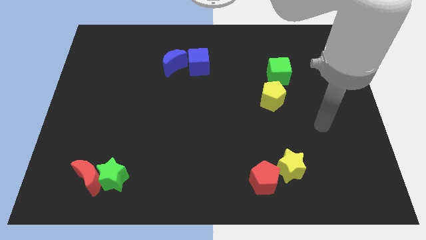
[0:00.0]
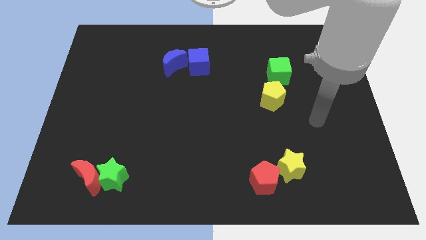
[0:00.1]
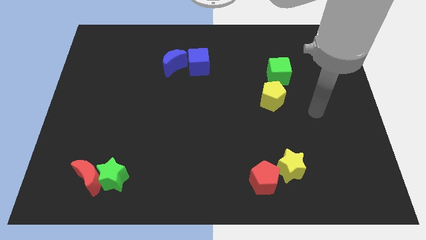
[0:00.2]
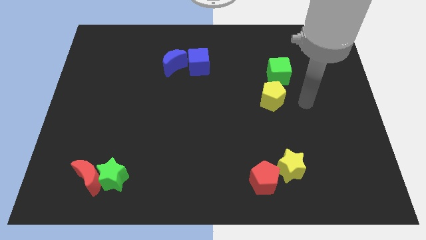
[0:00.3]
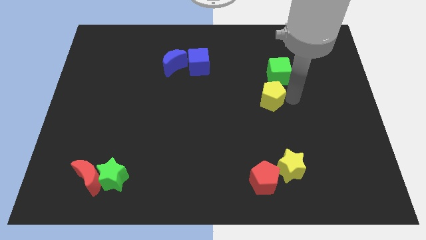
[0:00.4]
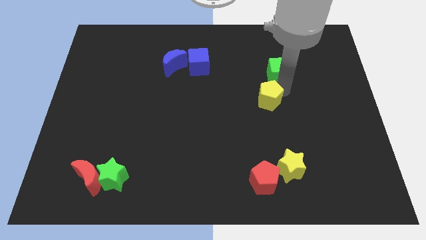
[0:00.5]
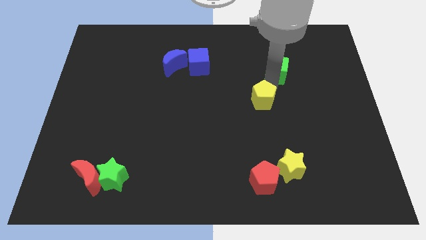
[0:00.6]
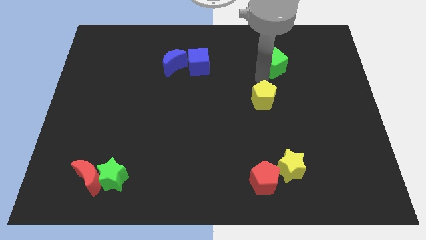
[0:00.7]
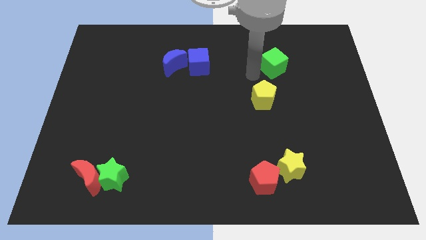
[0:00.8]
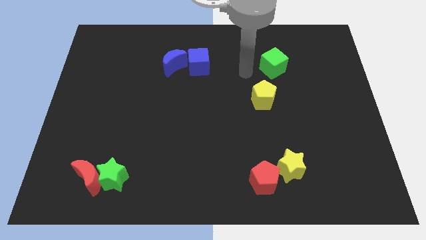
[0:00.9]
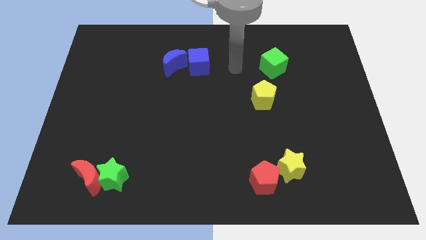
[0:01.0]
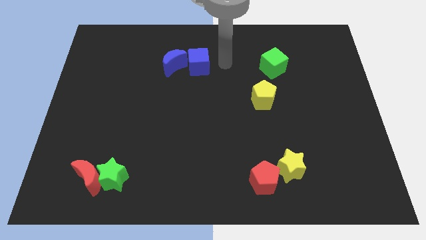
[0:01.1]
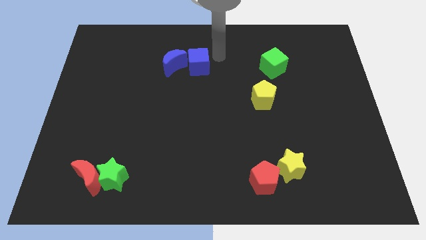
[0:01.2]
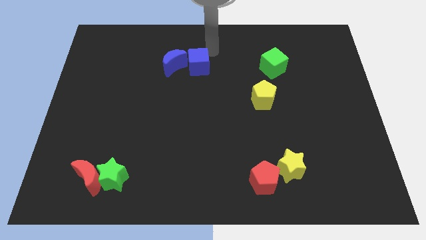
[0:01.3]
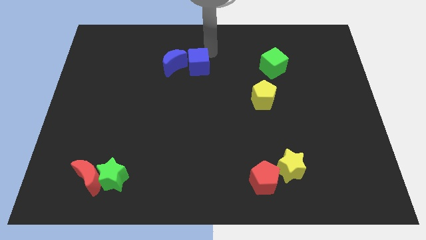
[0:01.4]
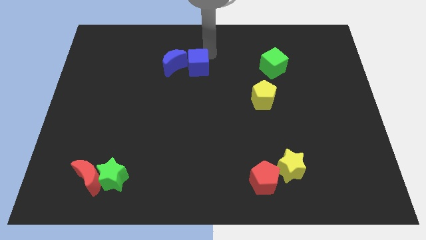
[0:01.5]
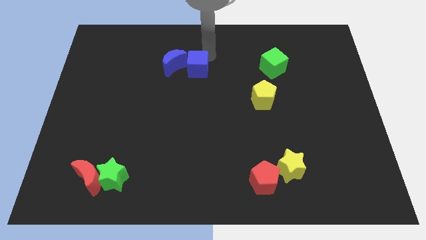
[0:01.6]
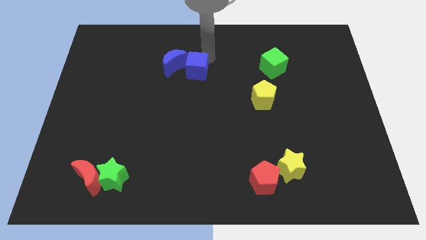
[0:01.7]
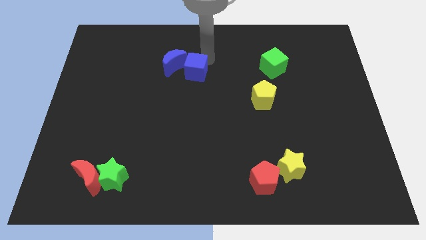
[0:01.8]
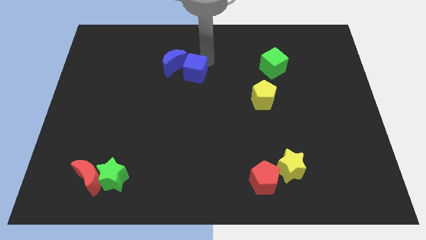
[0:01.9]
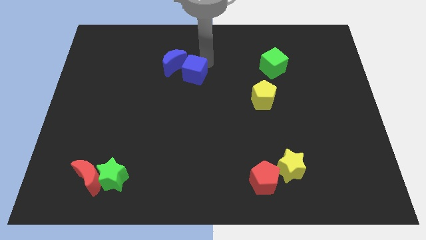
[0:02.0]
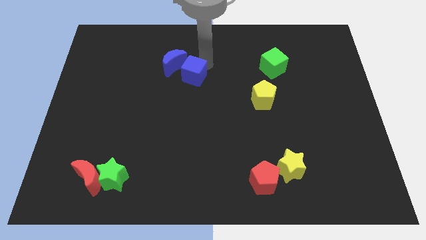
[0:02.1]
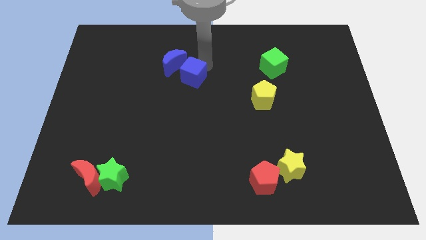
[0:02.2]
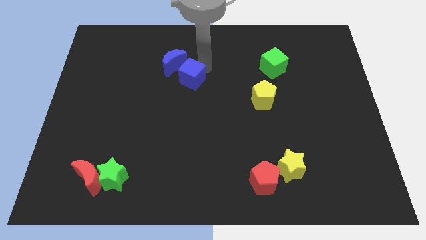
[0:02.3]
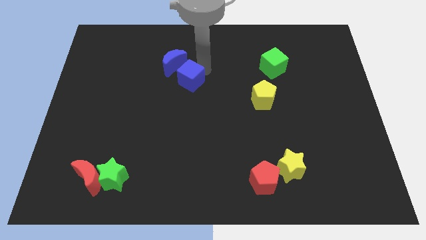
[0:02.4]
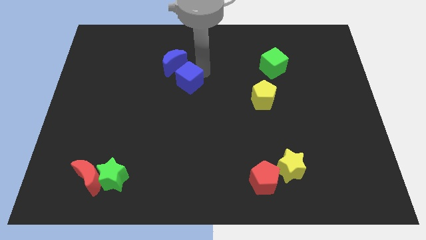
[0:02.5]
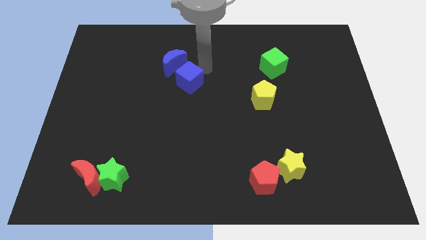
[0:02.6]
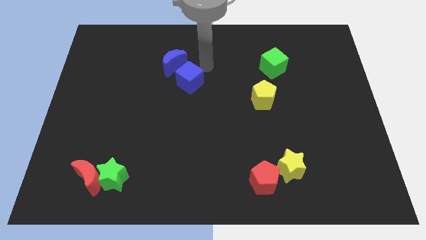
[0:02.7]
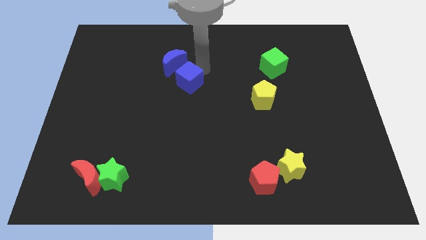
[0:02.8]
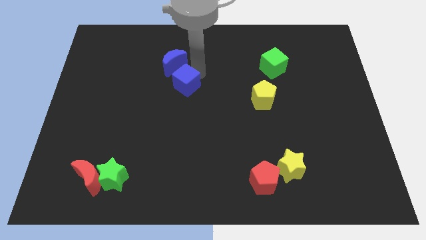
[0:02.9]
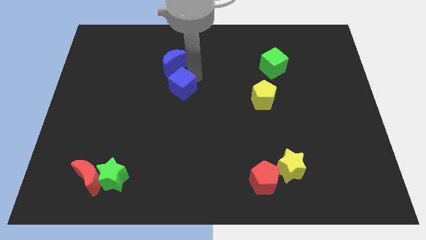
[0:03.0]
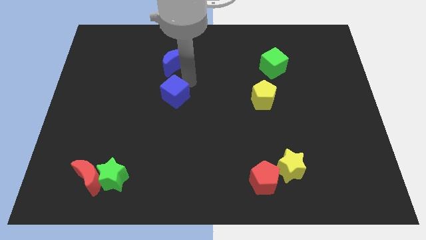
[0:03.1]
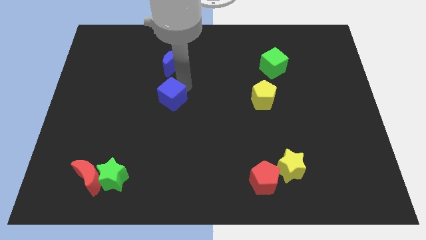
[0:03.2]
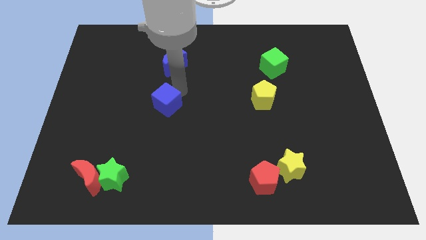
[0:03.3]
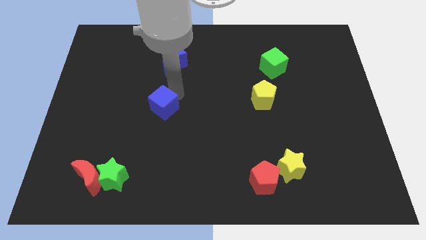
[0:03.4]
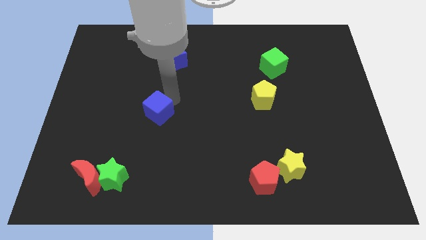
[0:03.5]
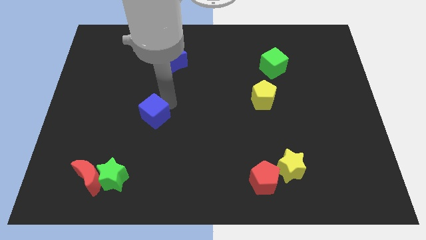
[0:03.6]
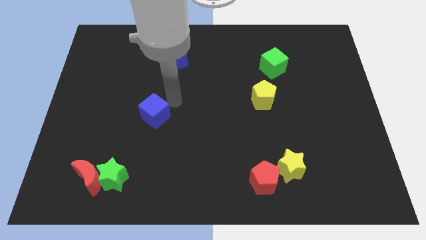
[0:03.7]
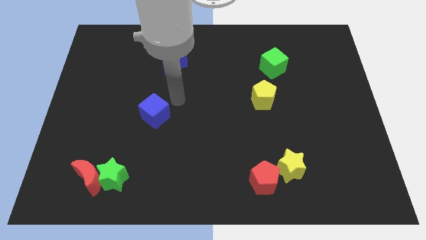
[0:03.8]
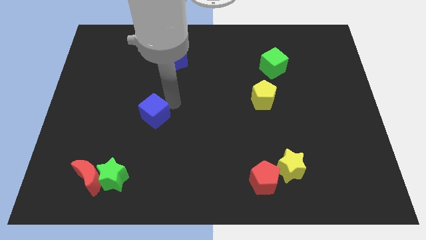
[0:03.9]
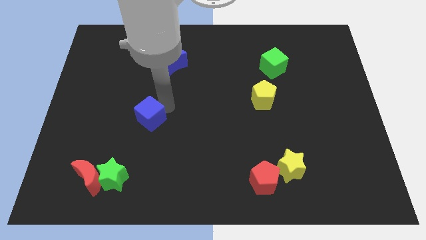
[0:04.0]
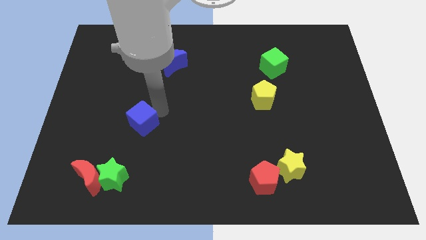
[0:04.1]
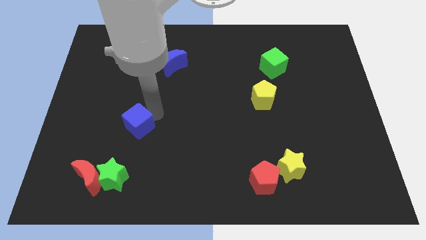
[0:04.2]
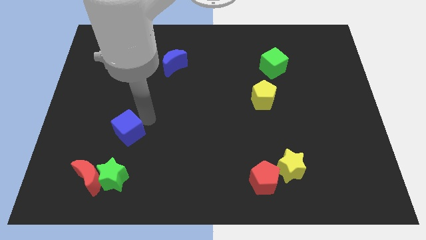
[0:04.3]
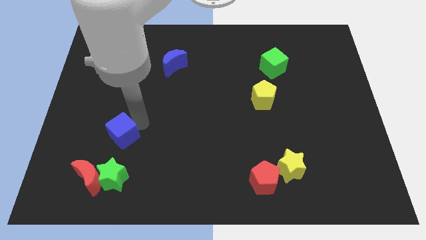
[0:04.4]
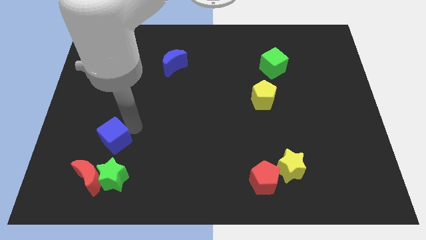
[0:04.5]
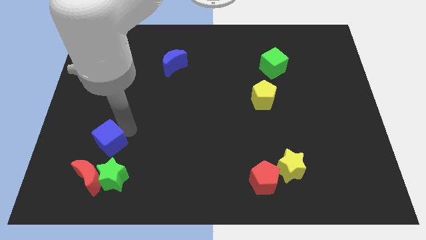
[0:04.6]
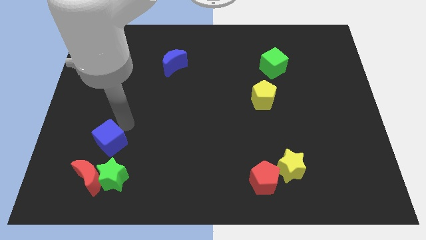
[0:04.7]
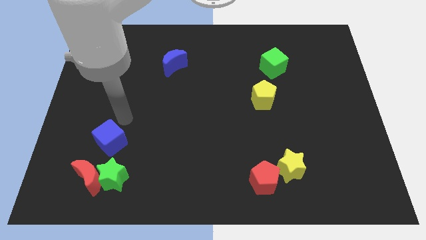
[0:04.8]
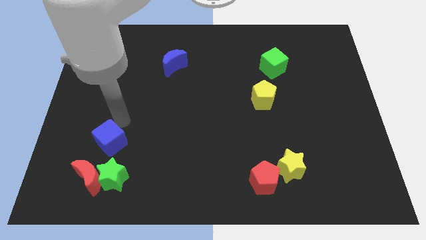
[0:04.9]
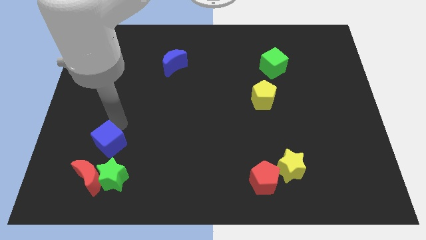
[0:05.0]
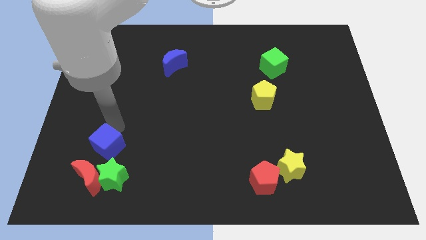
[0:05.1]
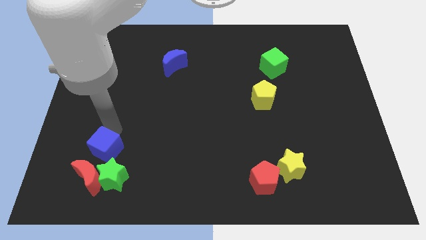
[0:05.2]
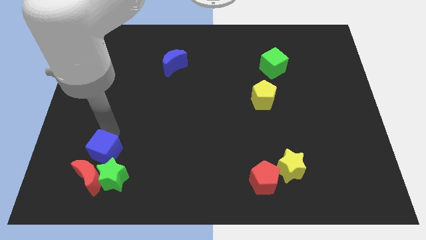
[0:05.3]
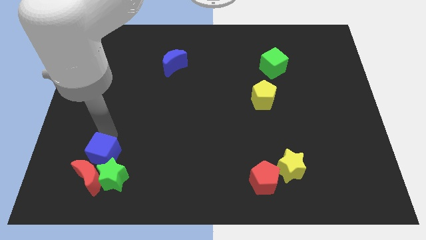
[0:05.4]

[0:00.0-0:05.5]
push the blue cube to the red moon

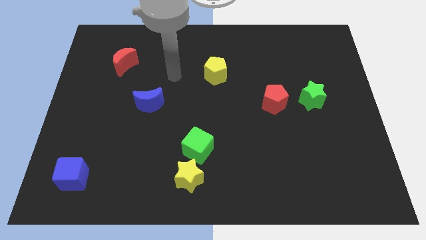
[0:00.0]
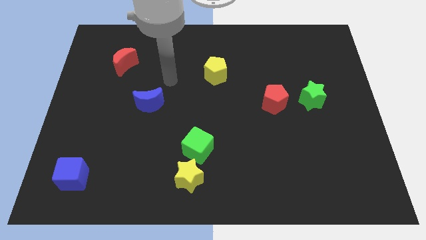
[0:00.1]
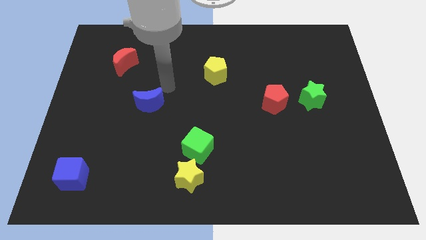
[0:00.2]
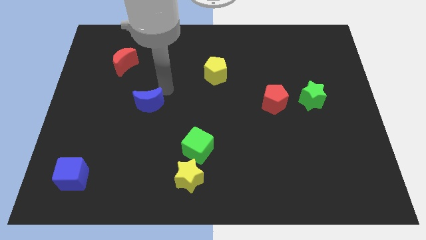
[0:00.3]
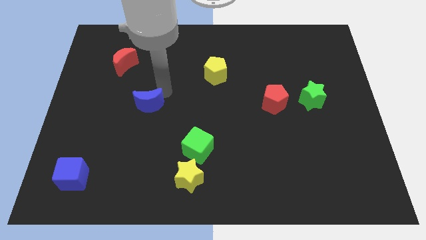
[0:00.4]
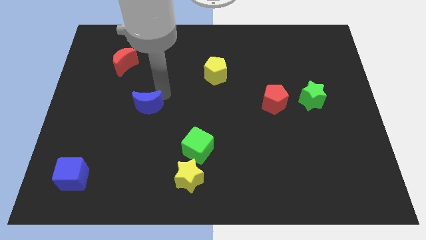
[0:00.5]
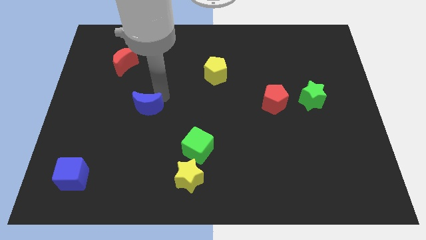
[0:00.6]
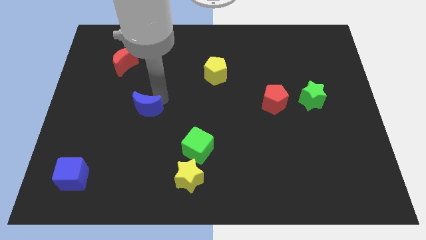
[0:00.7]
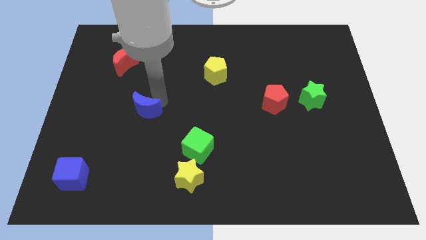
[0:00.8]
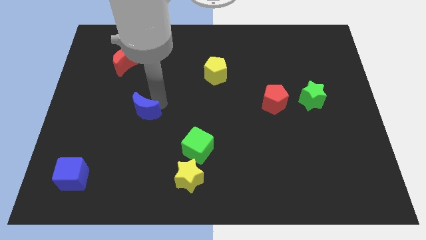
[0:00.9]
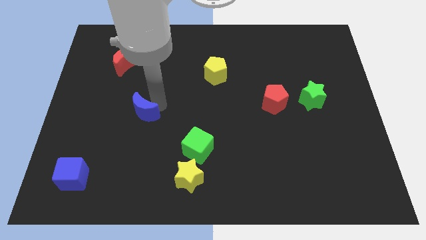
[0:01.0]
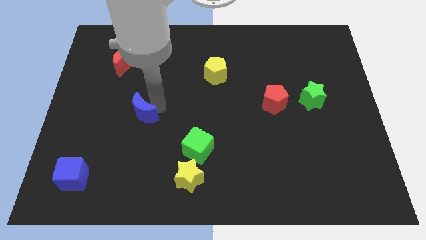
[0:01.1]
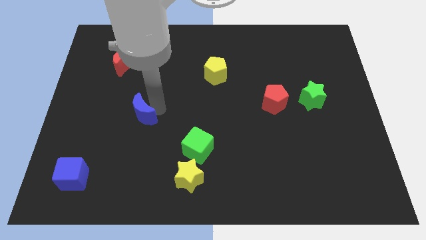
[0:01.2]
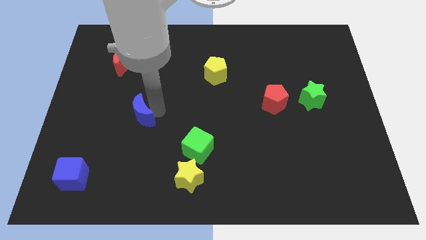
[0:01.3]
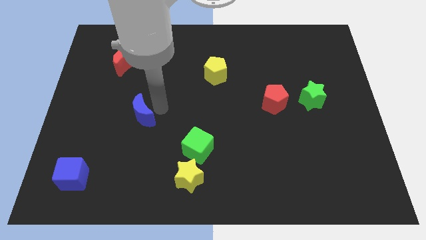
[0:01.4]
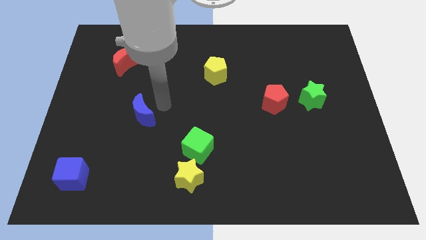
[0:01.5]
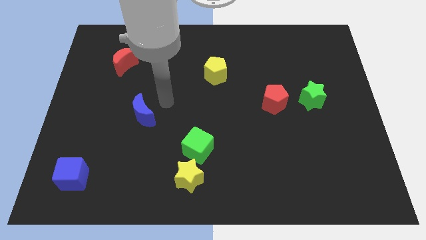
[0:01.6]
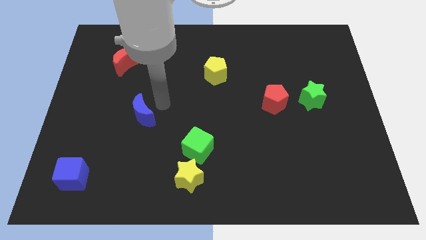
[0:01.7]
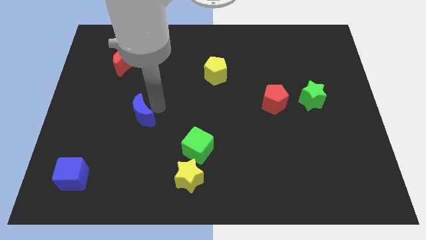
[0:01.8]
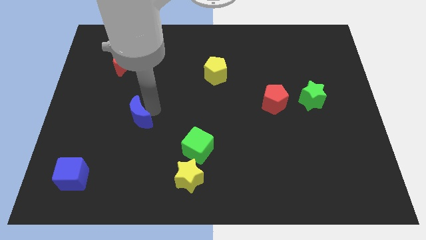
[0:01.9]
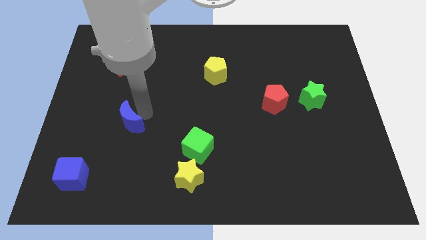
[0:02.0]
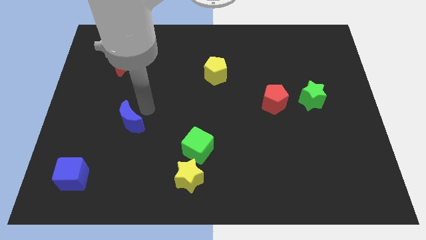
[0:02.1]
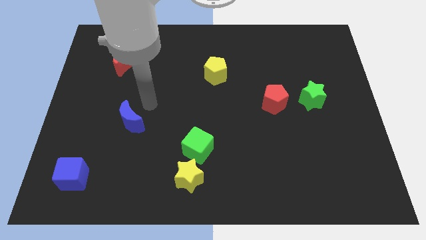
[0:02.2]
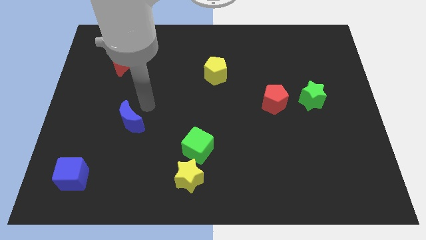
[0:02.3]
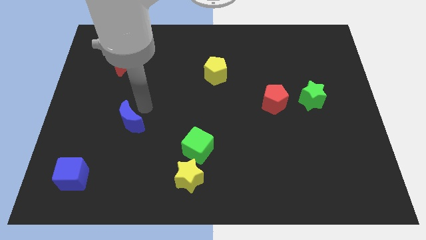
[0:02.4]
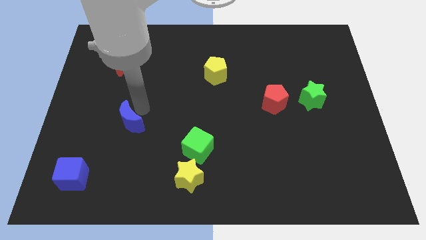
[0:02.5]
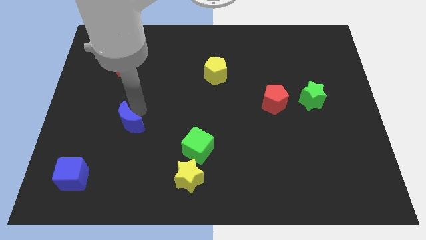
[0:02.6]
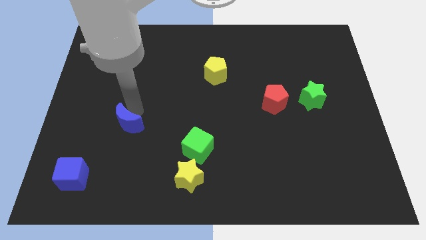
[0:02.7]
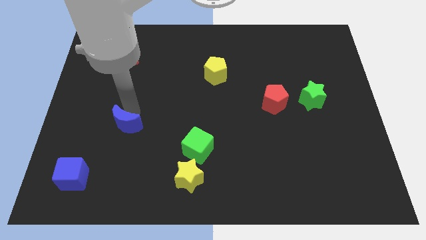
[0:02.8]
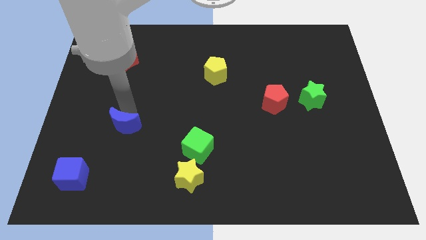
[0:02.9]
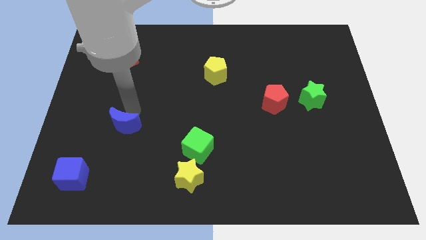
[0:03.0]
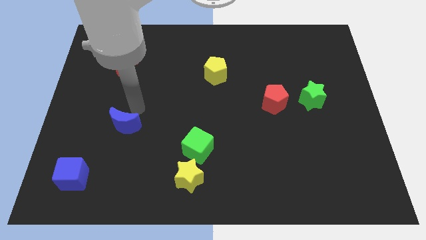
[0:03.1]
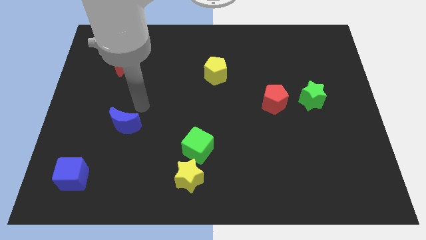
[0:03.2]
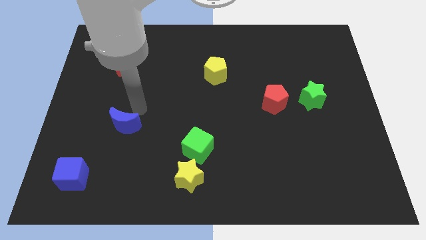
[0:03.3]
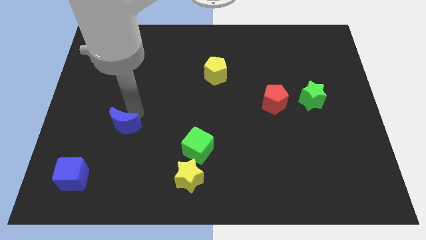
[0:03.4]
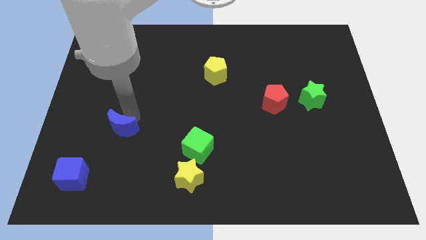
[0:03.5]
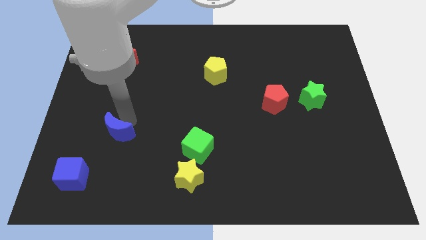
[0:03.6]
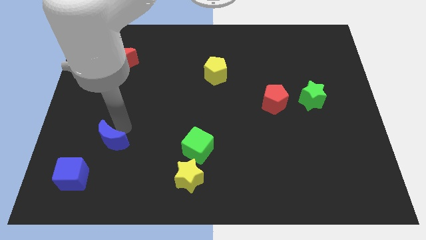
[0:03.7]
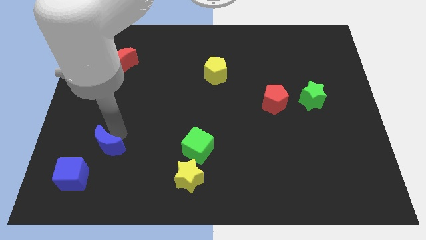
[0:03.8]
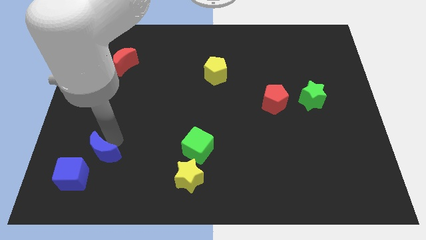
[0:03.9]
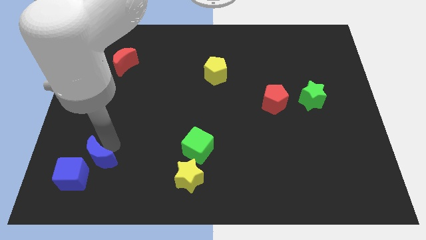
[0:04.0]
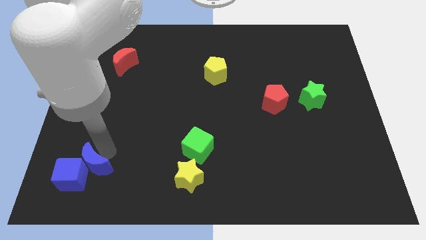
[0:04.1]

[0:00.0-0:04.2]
move the blue moon towards the blue cube
